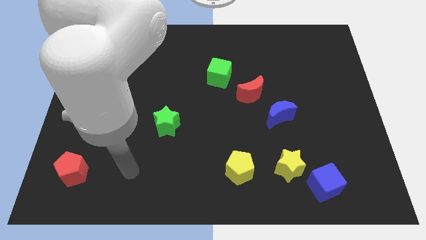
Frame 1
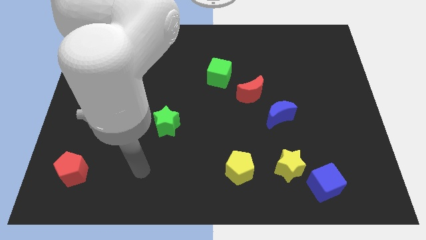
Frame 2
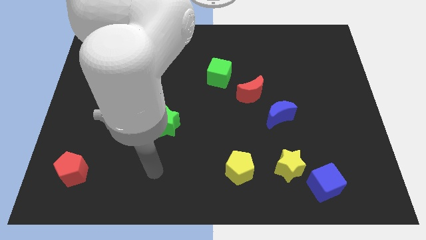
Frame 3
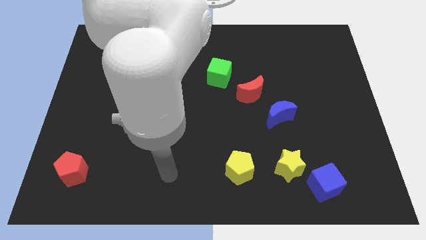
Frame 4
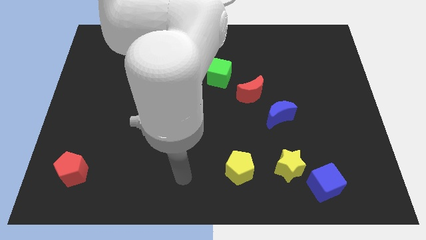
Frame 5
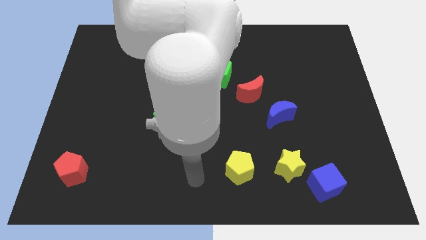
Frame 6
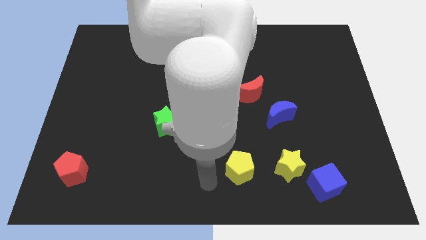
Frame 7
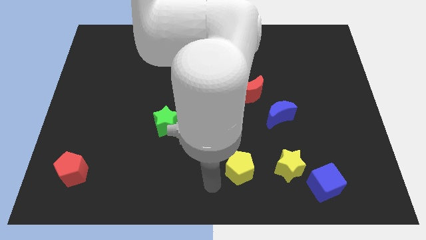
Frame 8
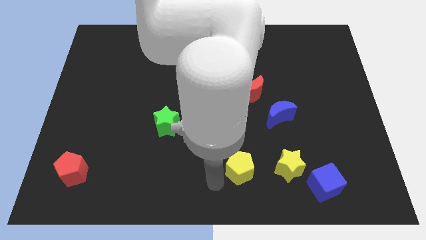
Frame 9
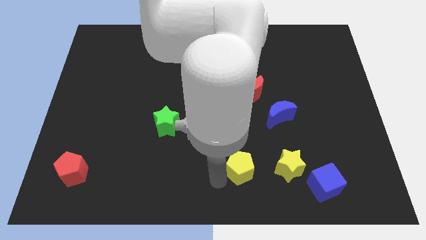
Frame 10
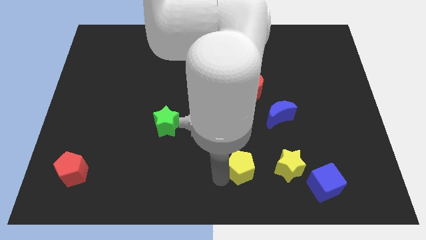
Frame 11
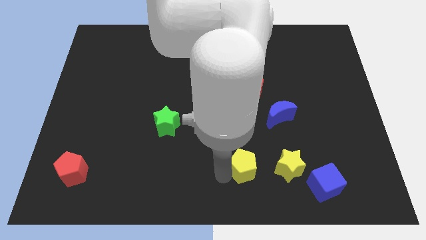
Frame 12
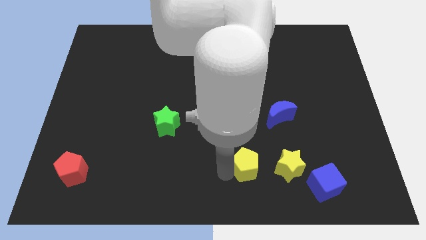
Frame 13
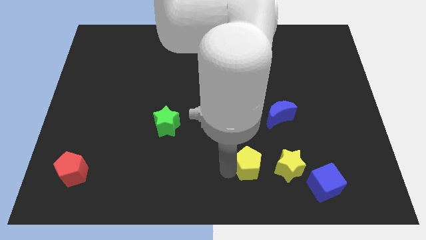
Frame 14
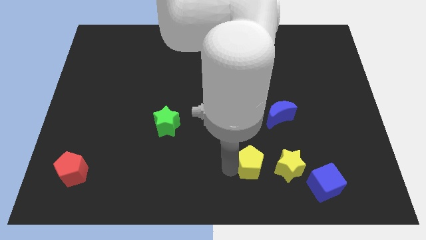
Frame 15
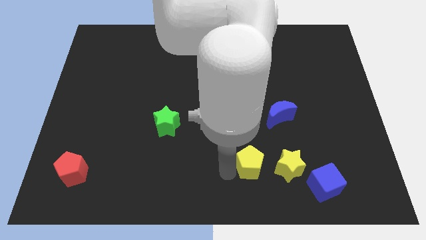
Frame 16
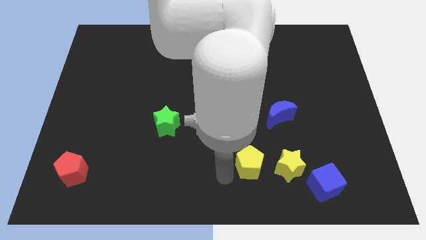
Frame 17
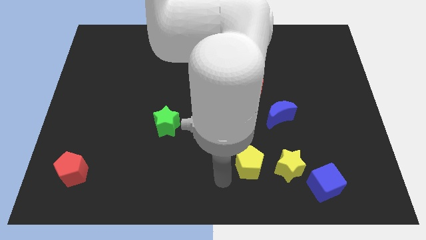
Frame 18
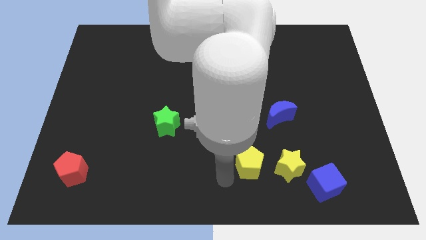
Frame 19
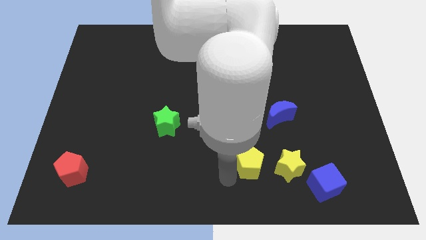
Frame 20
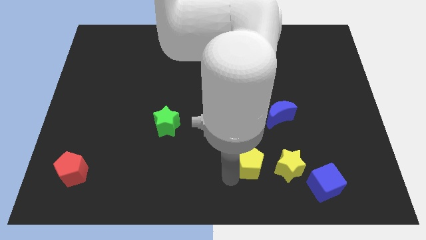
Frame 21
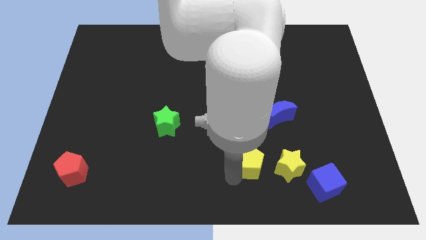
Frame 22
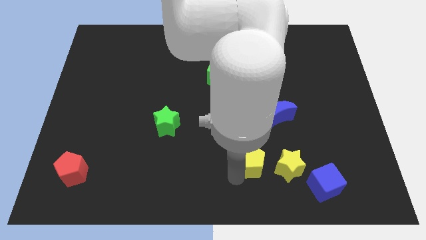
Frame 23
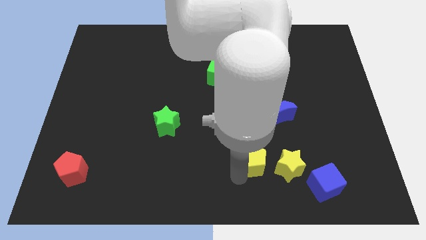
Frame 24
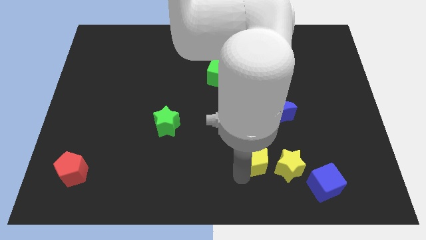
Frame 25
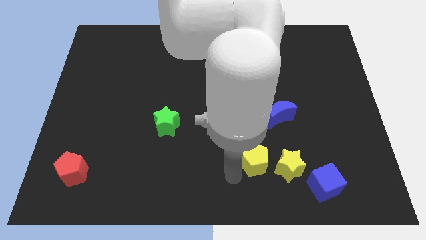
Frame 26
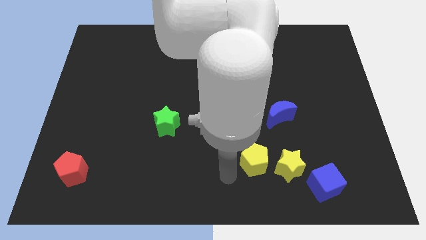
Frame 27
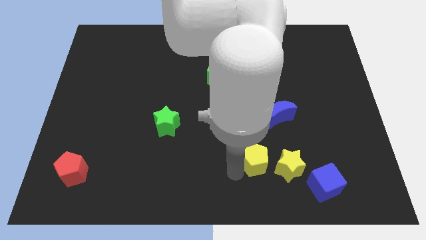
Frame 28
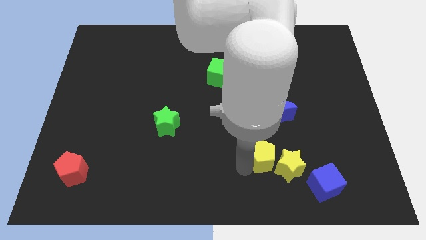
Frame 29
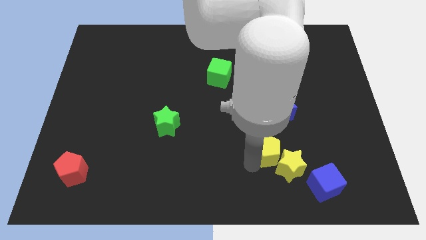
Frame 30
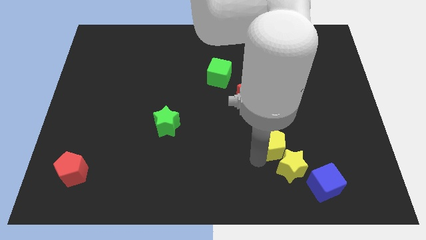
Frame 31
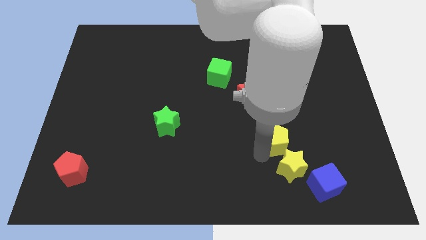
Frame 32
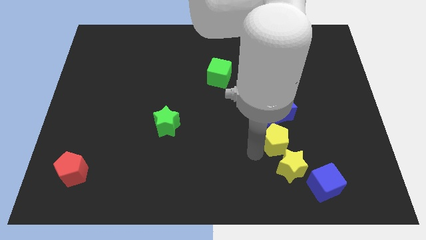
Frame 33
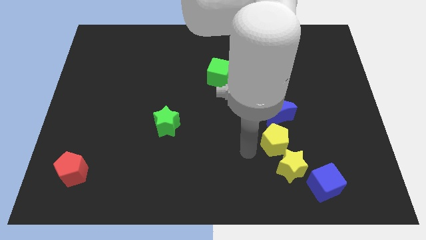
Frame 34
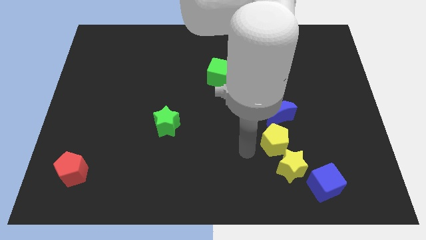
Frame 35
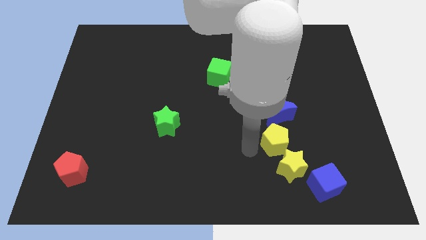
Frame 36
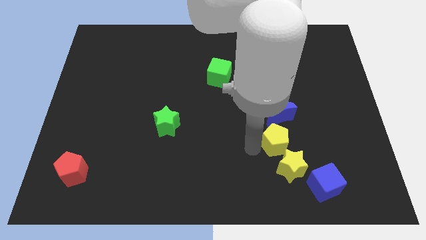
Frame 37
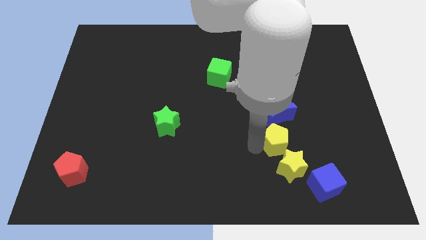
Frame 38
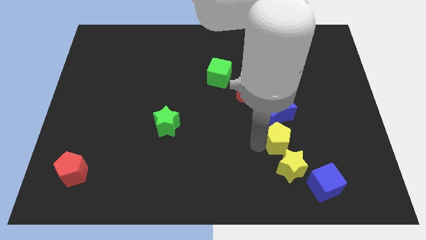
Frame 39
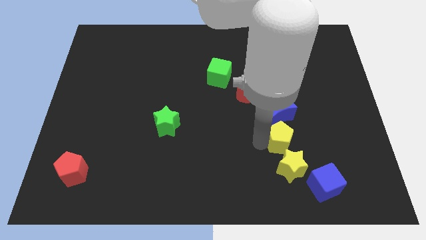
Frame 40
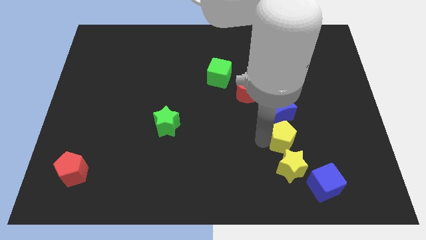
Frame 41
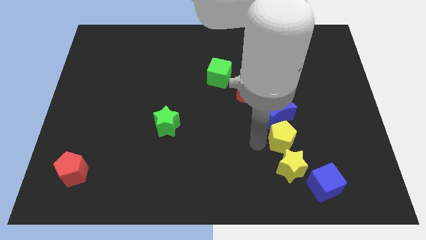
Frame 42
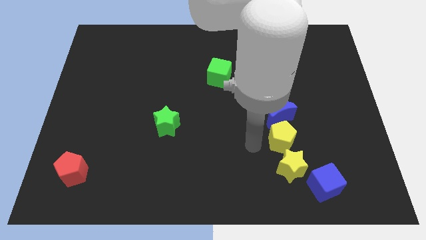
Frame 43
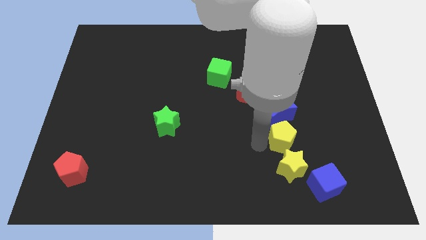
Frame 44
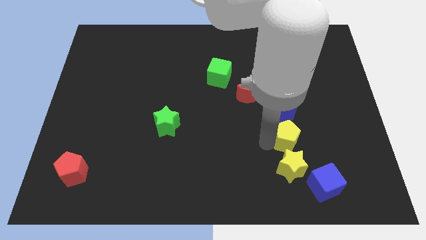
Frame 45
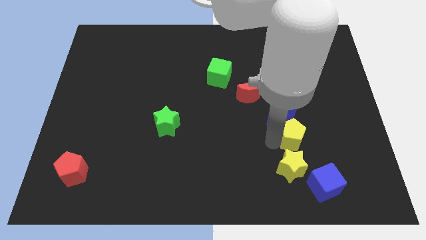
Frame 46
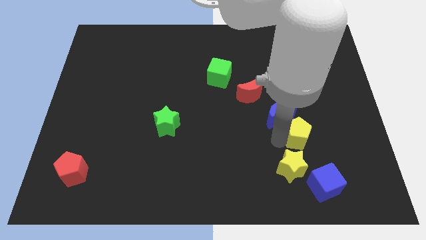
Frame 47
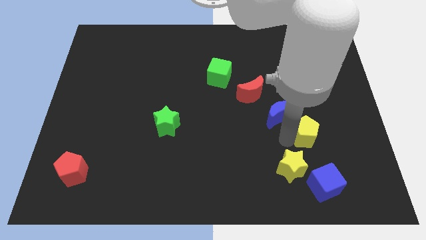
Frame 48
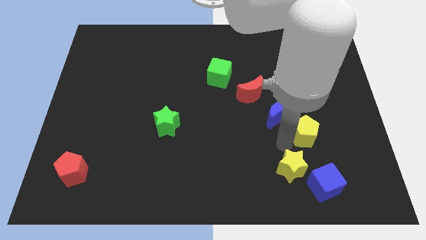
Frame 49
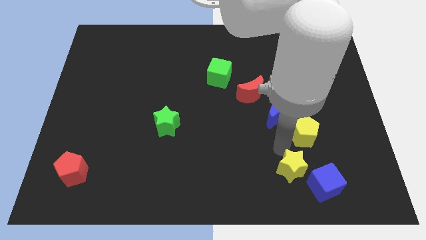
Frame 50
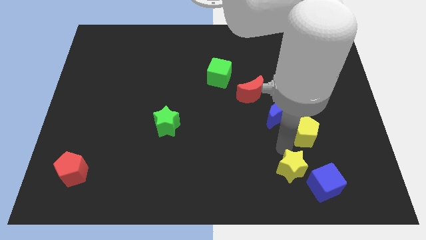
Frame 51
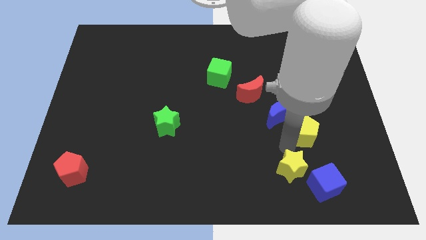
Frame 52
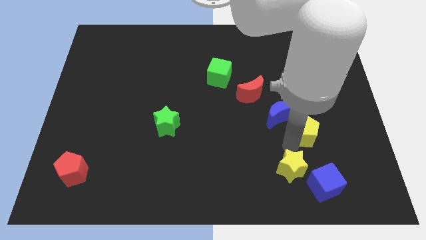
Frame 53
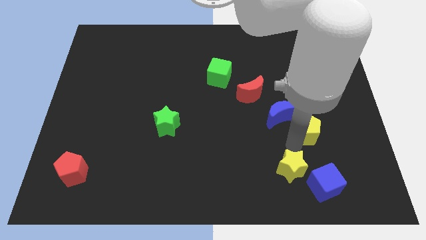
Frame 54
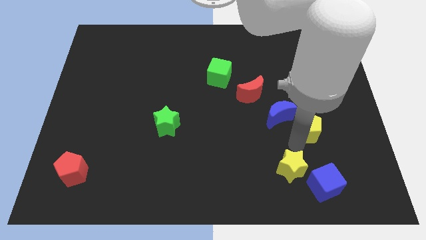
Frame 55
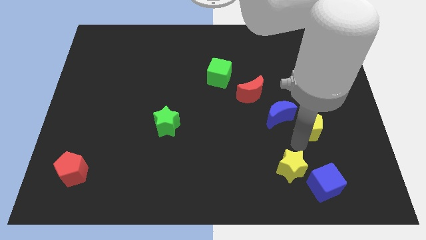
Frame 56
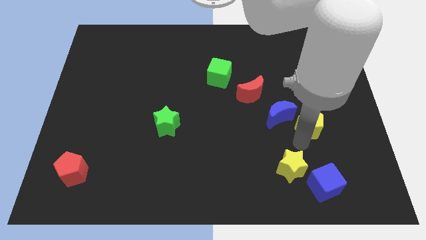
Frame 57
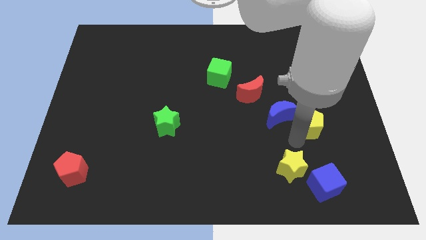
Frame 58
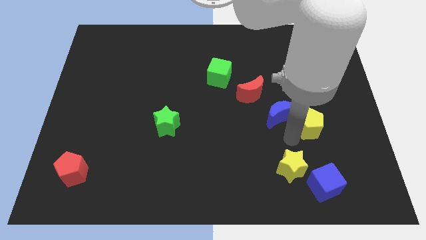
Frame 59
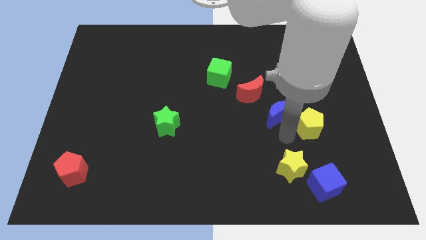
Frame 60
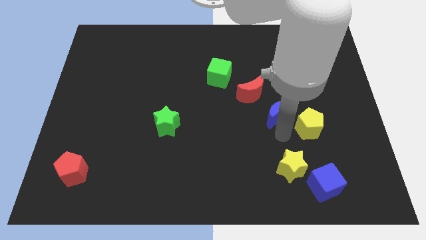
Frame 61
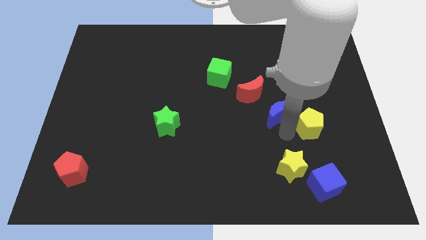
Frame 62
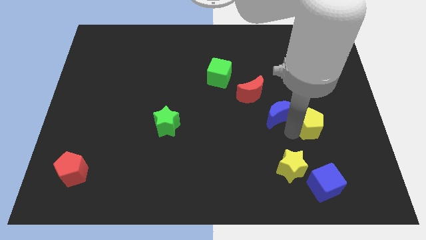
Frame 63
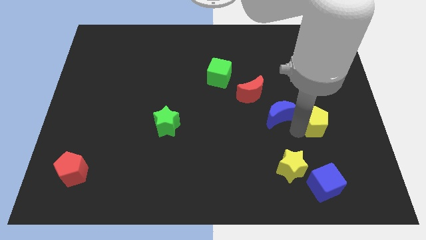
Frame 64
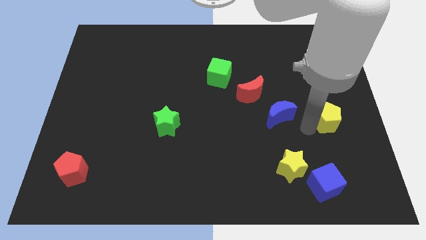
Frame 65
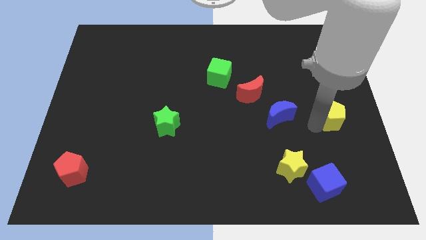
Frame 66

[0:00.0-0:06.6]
slide the yellow pentagon to the right side of the board
